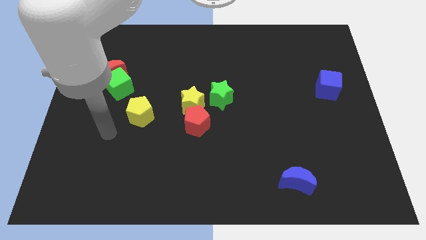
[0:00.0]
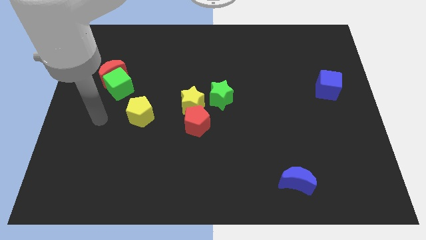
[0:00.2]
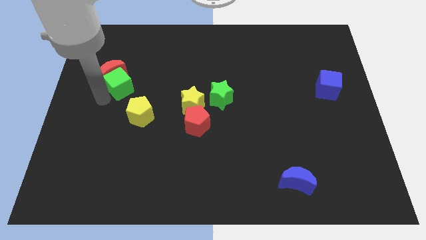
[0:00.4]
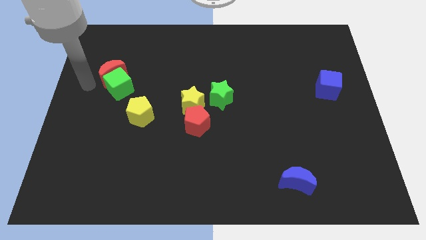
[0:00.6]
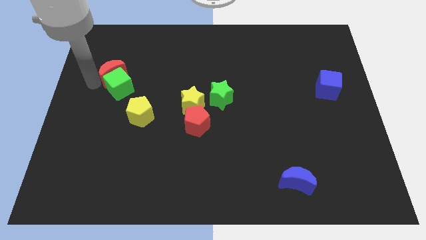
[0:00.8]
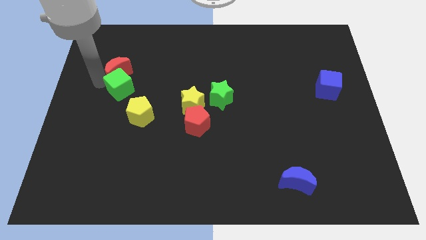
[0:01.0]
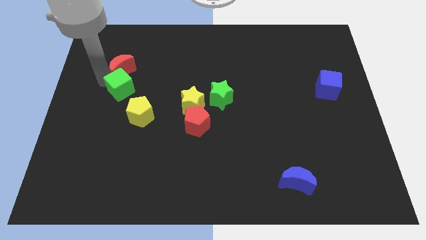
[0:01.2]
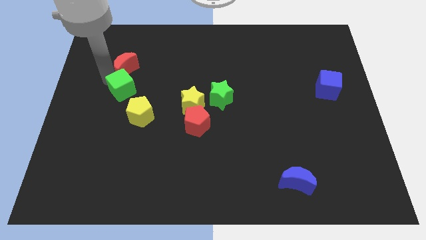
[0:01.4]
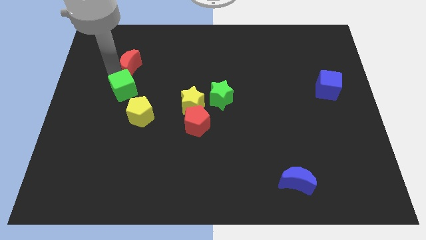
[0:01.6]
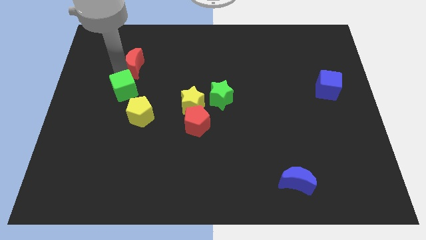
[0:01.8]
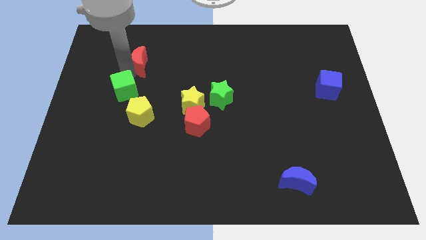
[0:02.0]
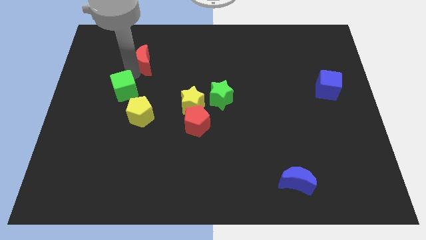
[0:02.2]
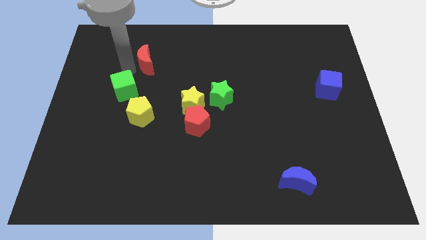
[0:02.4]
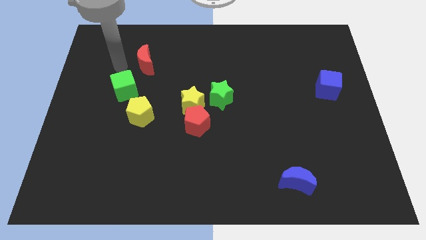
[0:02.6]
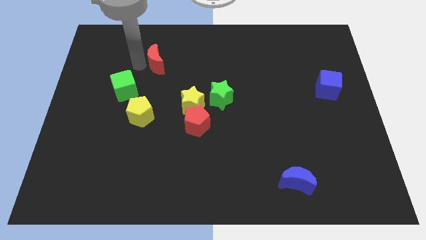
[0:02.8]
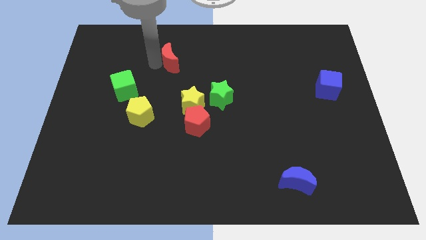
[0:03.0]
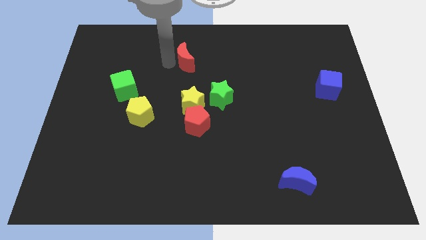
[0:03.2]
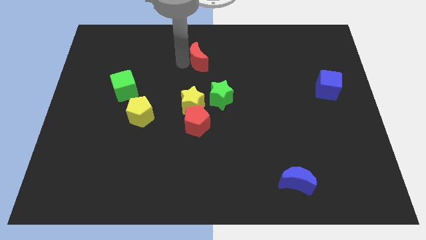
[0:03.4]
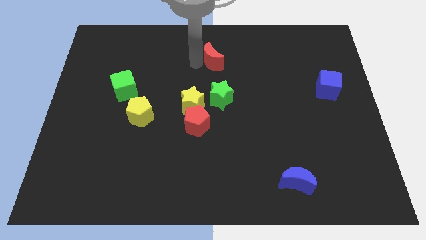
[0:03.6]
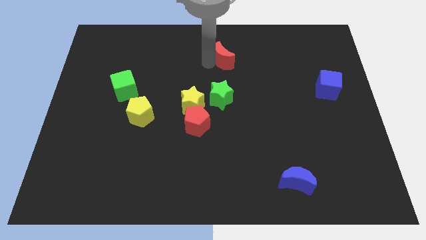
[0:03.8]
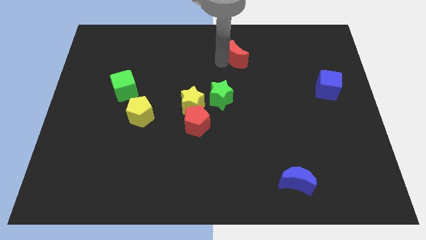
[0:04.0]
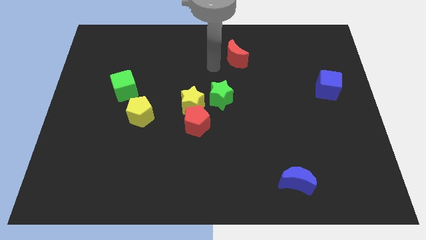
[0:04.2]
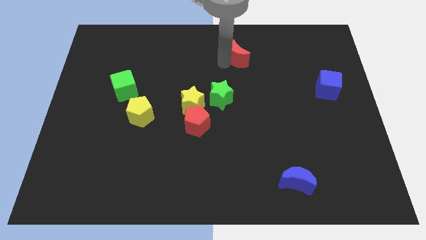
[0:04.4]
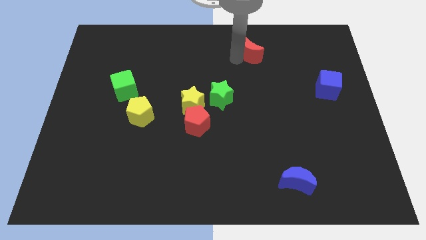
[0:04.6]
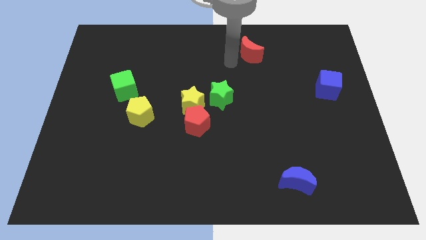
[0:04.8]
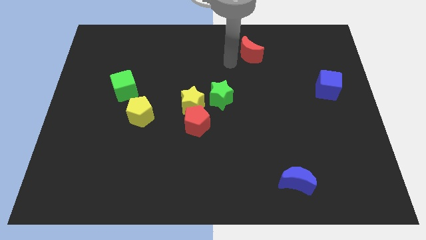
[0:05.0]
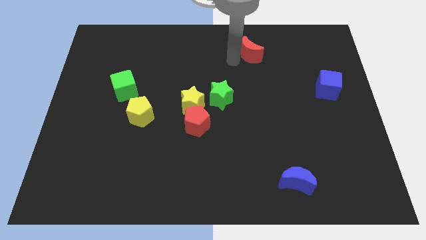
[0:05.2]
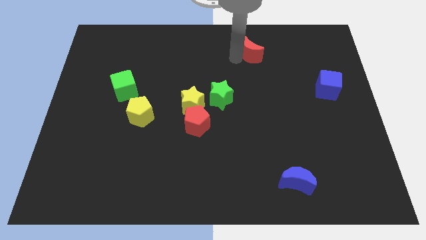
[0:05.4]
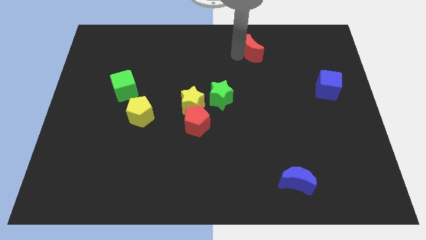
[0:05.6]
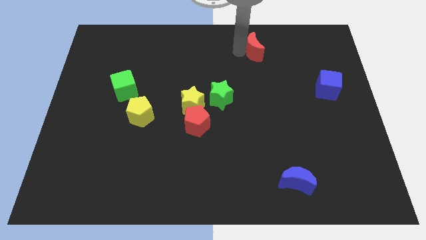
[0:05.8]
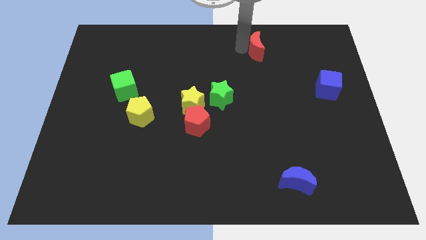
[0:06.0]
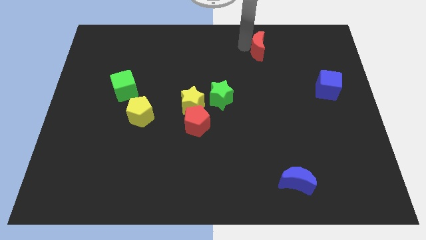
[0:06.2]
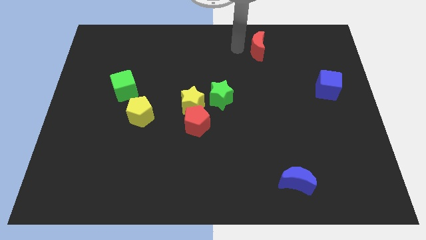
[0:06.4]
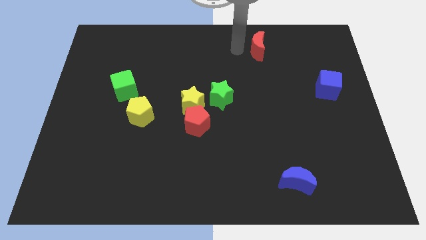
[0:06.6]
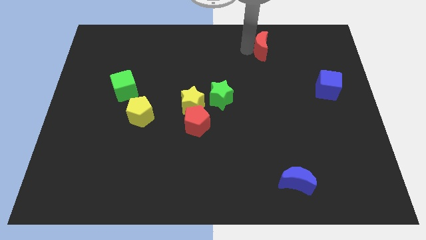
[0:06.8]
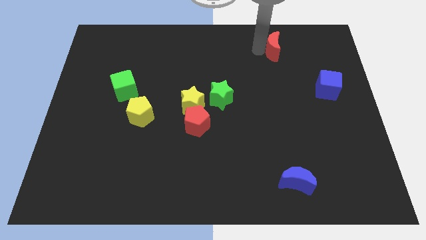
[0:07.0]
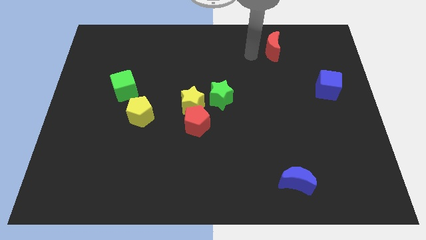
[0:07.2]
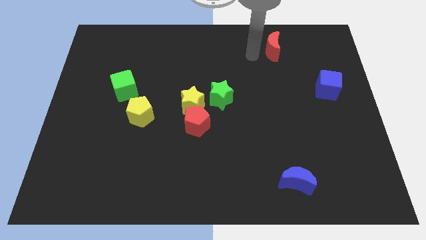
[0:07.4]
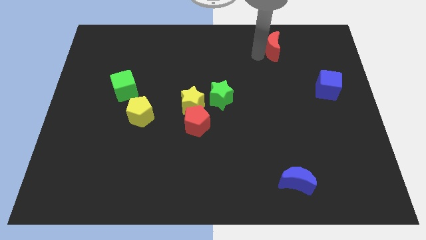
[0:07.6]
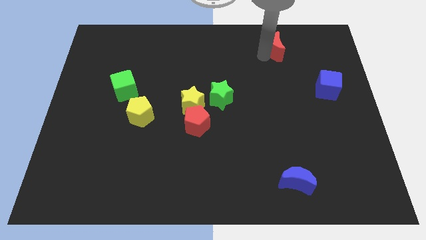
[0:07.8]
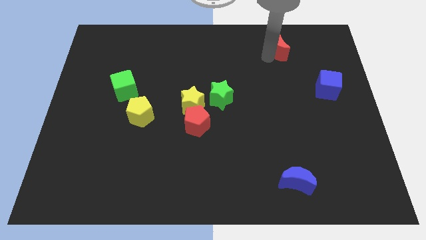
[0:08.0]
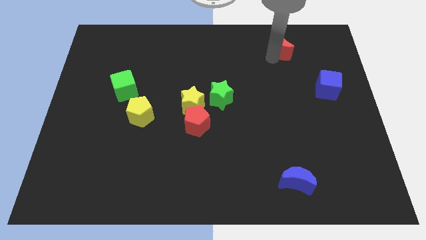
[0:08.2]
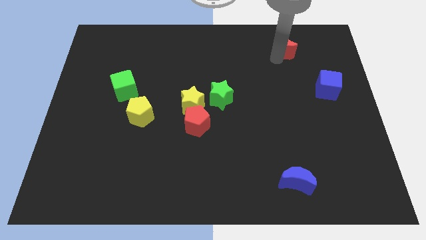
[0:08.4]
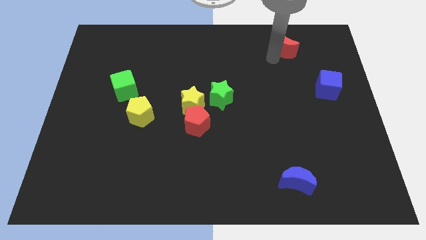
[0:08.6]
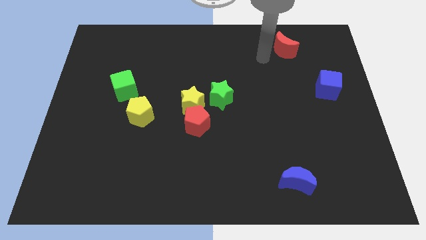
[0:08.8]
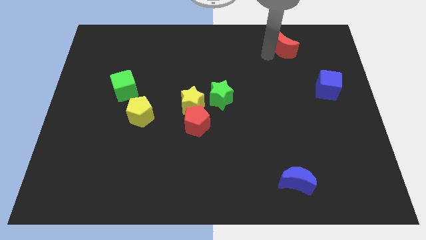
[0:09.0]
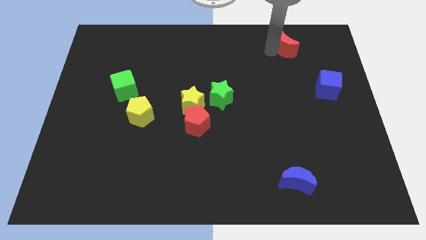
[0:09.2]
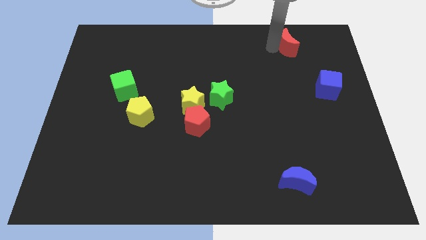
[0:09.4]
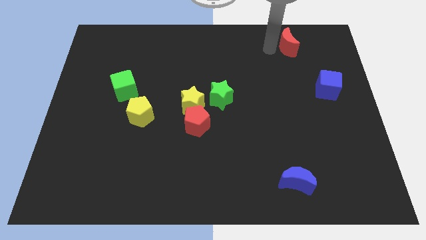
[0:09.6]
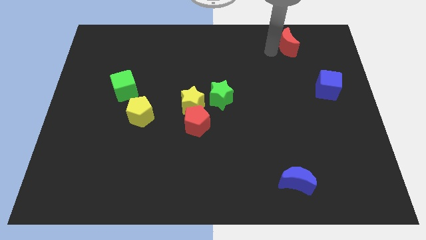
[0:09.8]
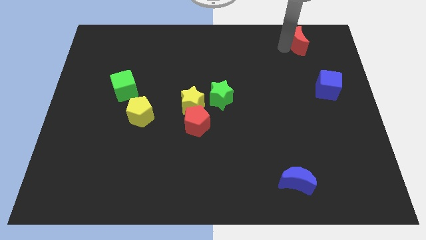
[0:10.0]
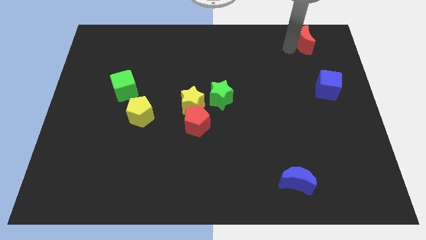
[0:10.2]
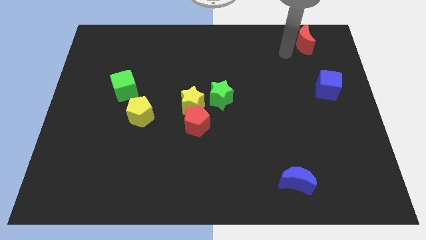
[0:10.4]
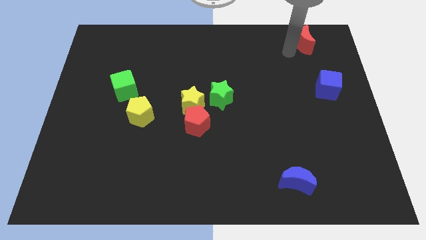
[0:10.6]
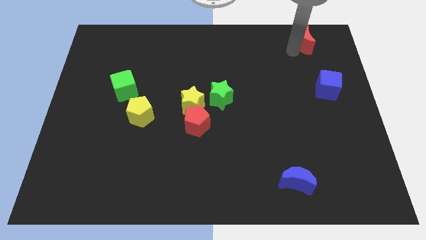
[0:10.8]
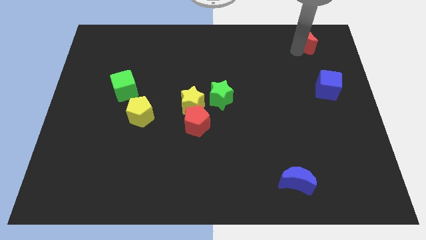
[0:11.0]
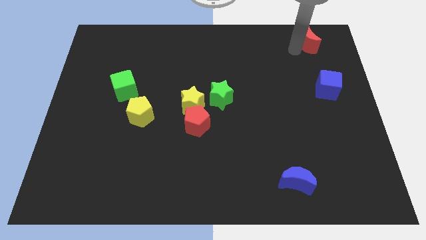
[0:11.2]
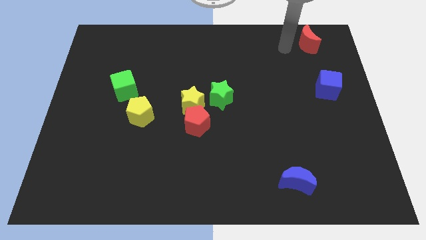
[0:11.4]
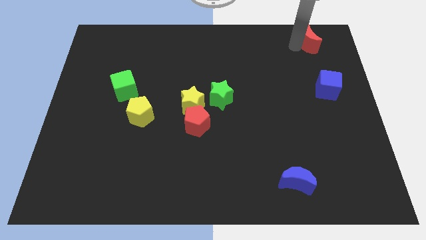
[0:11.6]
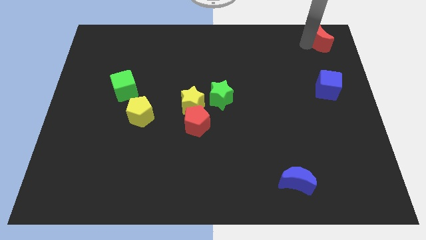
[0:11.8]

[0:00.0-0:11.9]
put the red moon to the top right

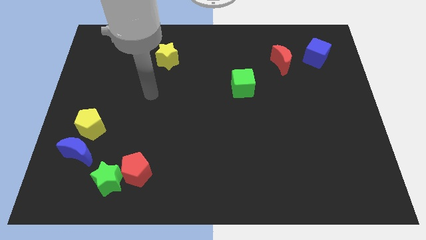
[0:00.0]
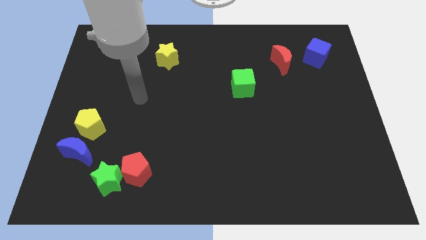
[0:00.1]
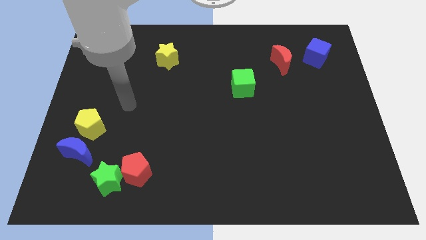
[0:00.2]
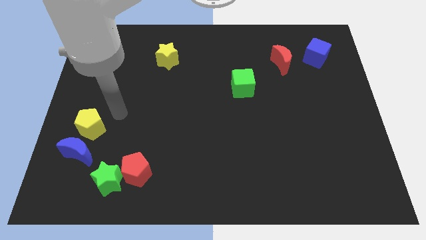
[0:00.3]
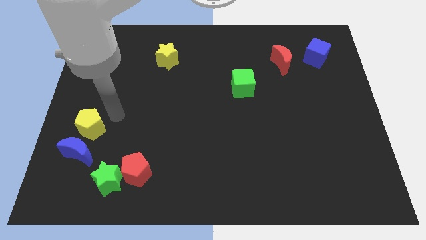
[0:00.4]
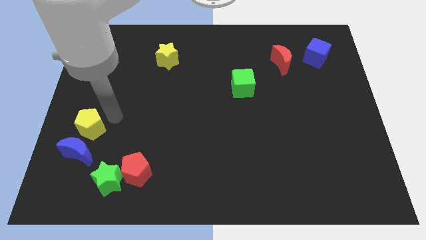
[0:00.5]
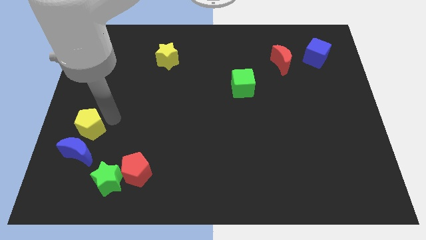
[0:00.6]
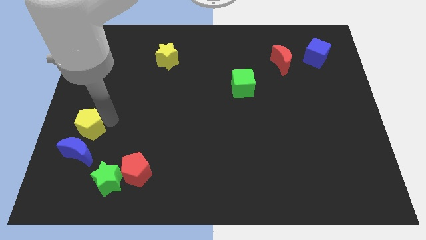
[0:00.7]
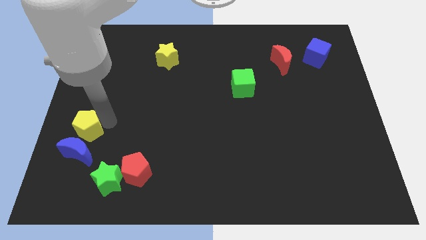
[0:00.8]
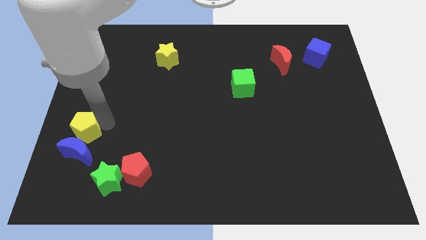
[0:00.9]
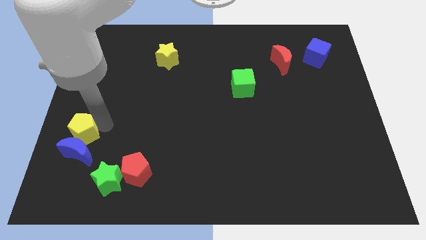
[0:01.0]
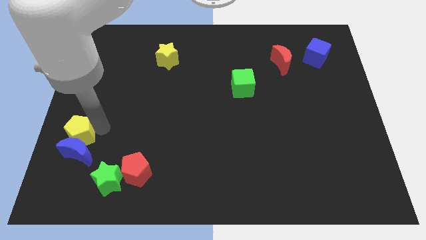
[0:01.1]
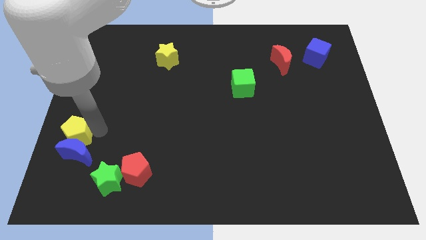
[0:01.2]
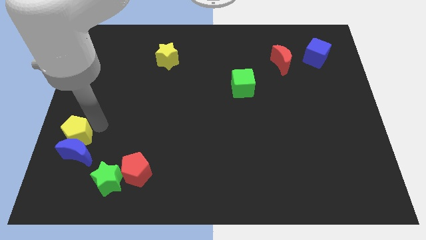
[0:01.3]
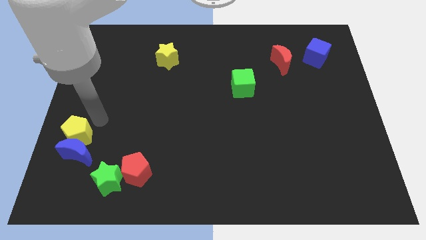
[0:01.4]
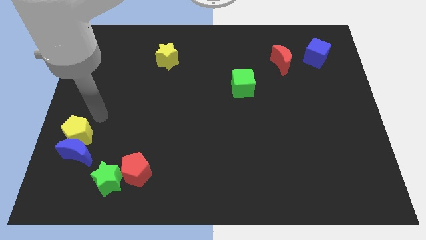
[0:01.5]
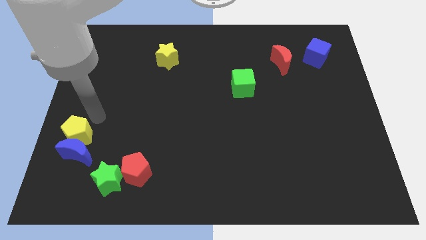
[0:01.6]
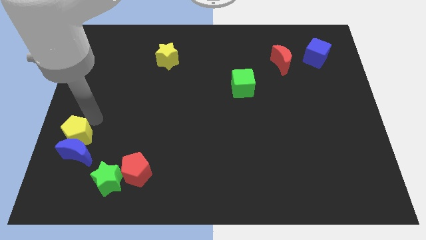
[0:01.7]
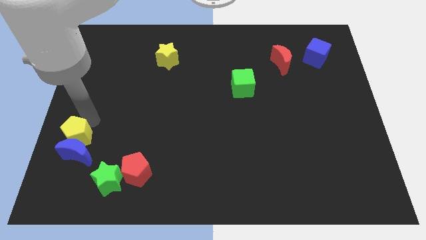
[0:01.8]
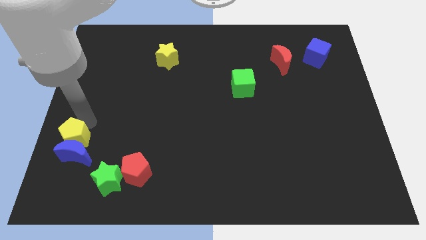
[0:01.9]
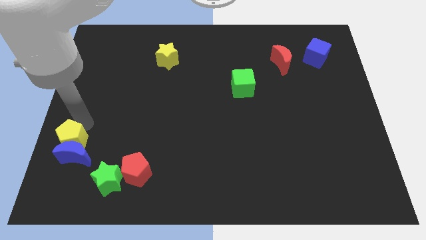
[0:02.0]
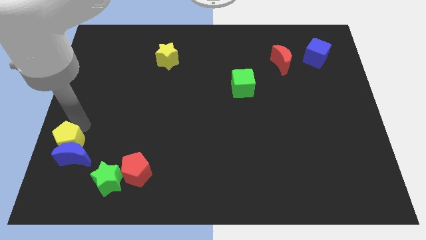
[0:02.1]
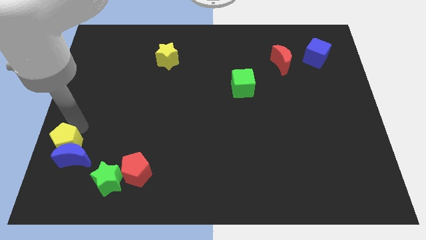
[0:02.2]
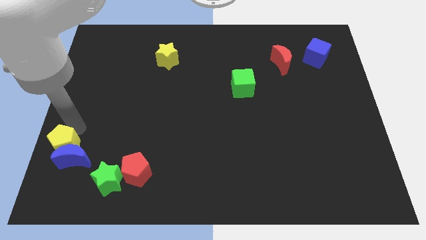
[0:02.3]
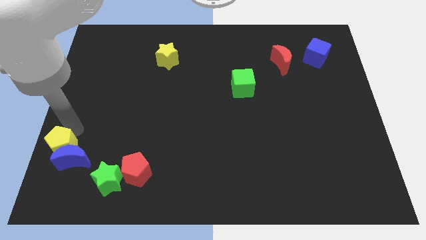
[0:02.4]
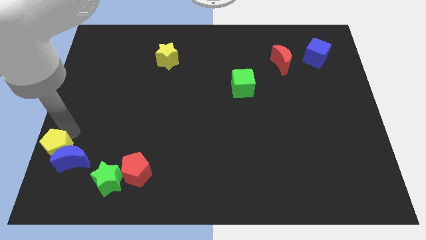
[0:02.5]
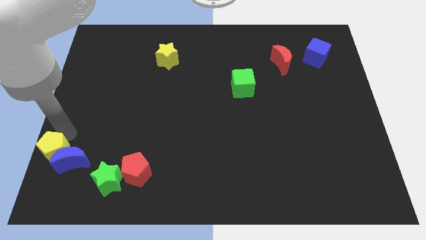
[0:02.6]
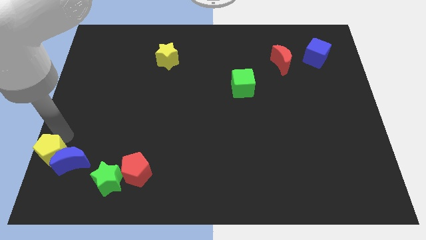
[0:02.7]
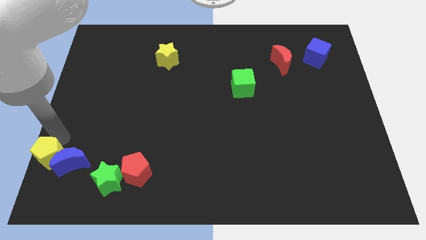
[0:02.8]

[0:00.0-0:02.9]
put the yellow pentagon to the bottom left of the board
